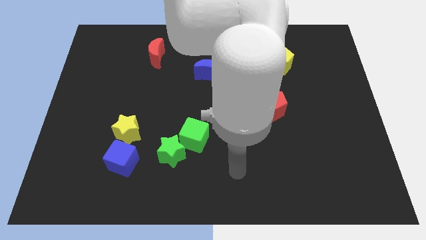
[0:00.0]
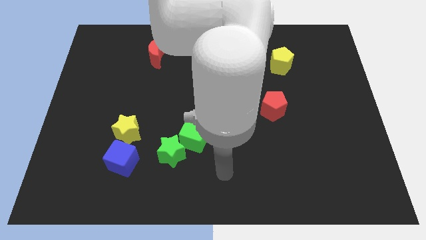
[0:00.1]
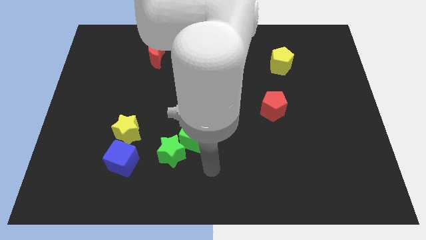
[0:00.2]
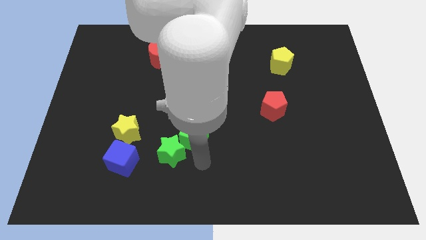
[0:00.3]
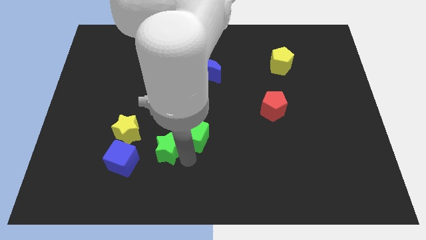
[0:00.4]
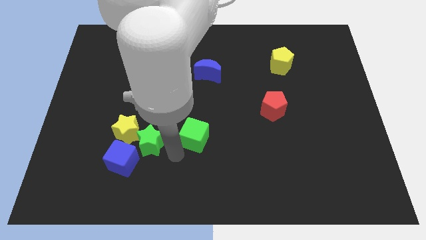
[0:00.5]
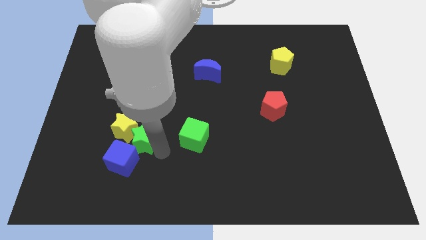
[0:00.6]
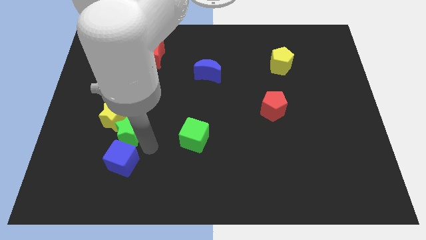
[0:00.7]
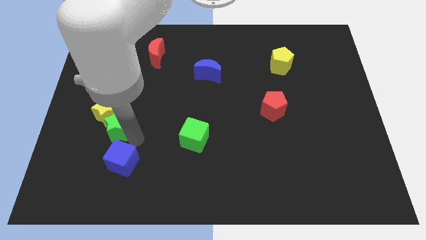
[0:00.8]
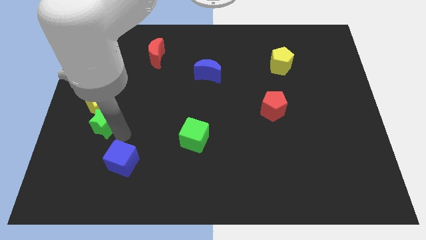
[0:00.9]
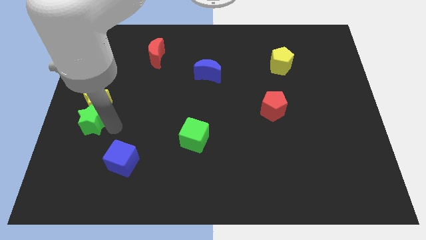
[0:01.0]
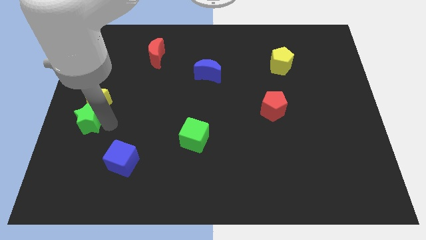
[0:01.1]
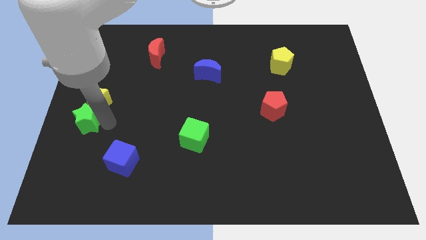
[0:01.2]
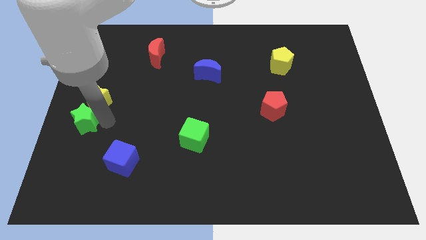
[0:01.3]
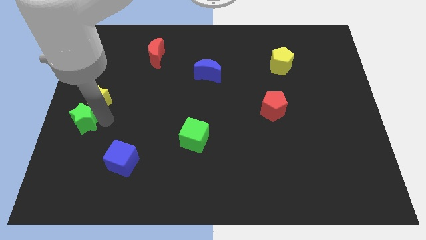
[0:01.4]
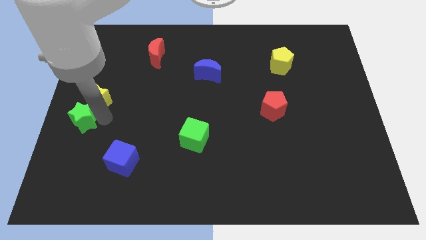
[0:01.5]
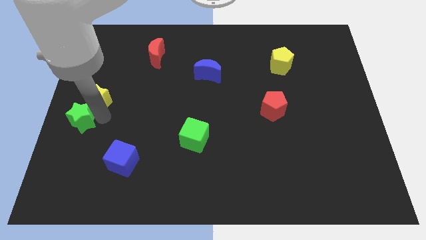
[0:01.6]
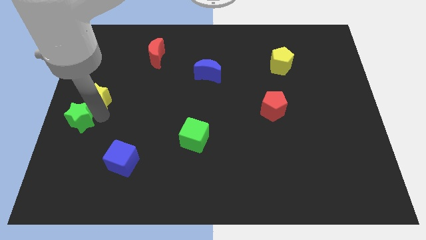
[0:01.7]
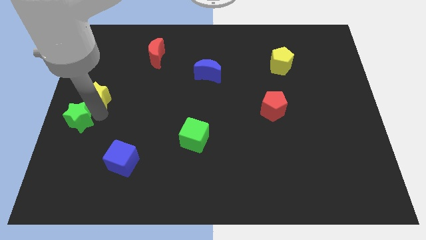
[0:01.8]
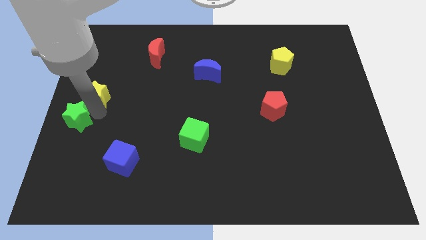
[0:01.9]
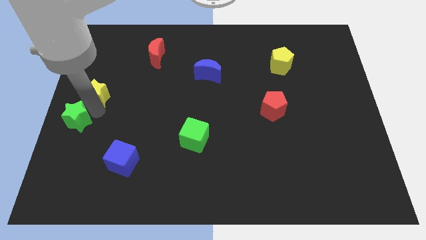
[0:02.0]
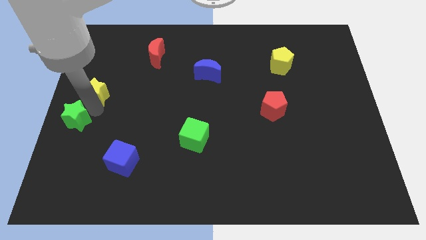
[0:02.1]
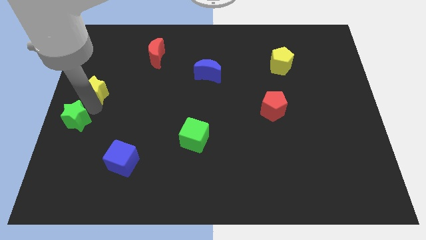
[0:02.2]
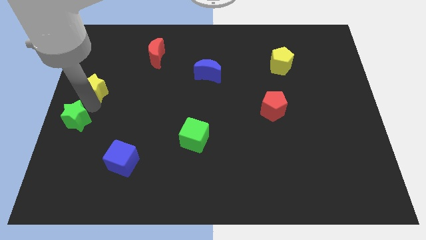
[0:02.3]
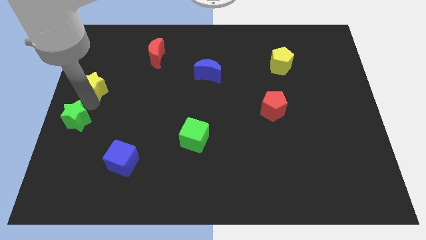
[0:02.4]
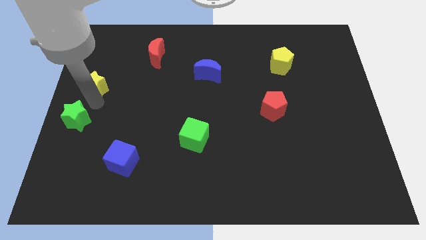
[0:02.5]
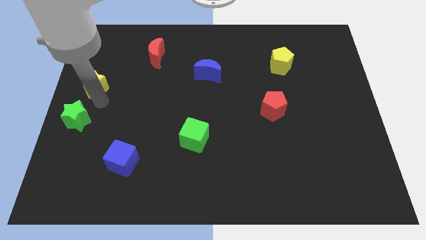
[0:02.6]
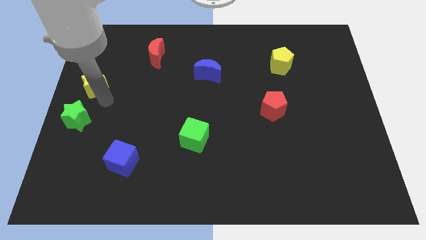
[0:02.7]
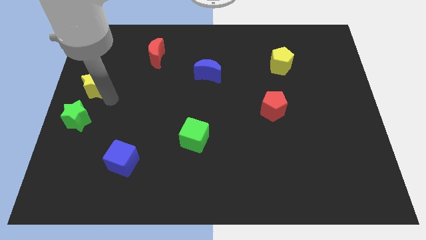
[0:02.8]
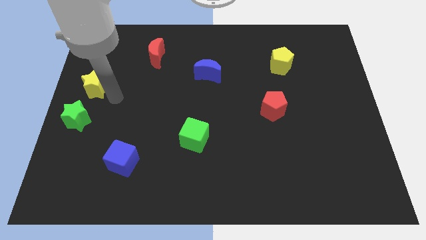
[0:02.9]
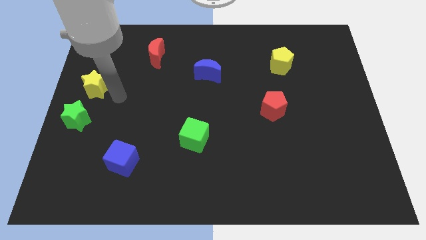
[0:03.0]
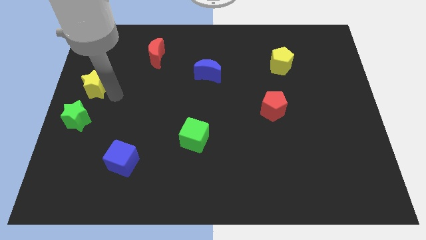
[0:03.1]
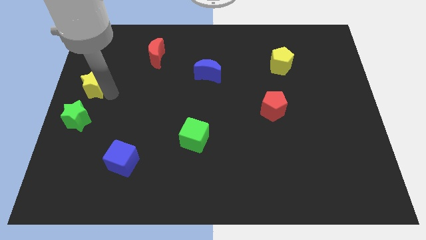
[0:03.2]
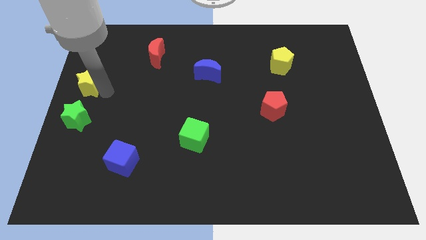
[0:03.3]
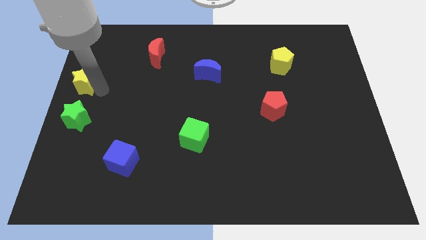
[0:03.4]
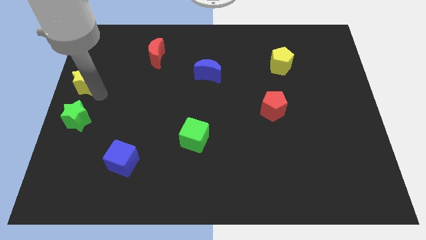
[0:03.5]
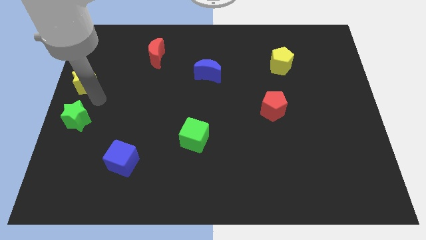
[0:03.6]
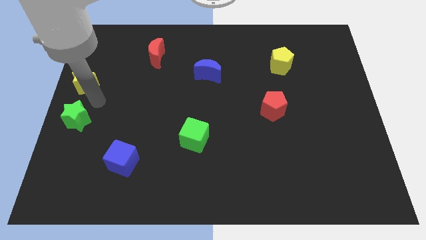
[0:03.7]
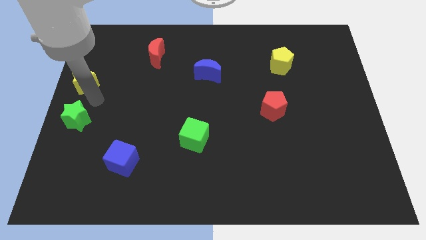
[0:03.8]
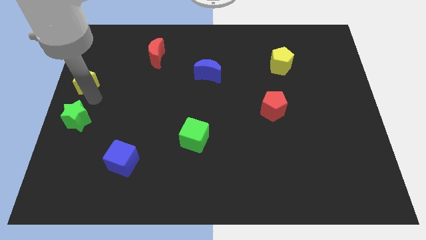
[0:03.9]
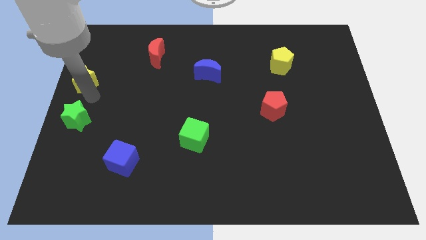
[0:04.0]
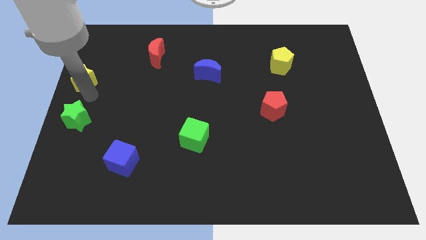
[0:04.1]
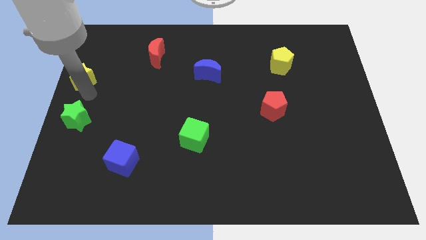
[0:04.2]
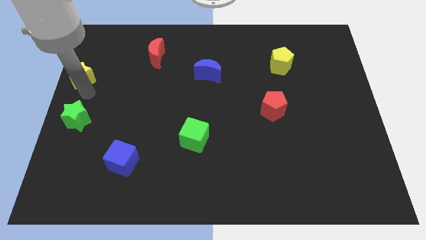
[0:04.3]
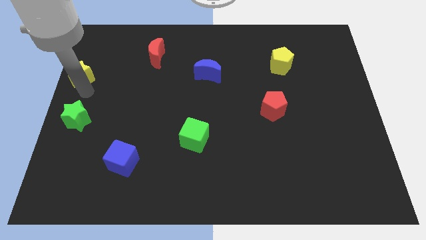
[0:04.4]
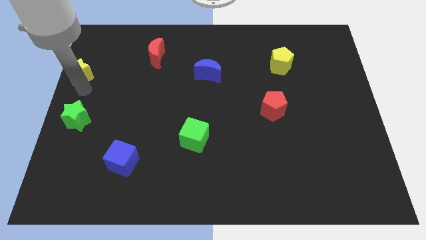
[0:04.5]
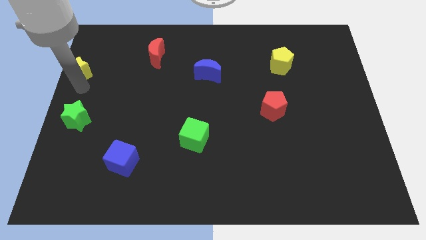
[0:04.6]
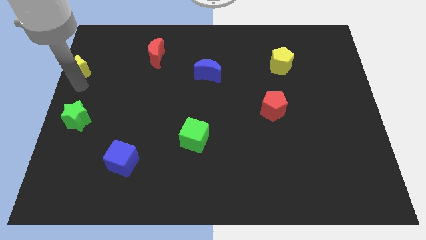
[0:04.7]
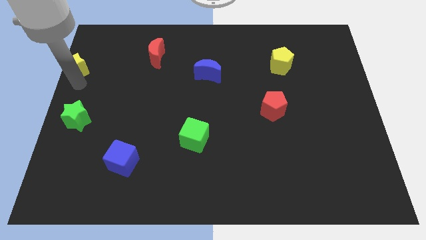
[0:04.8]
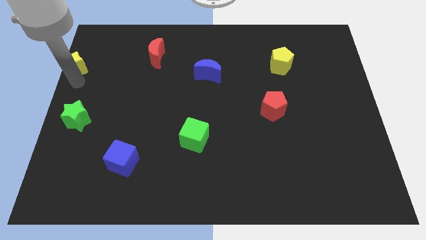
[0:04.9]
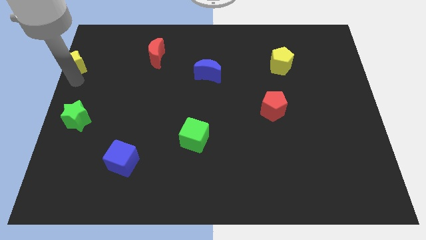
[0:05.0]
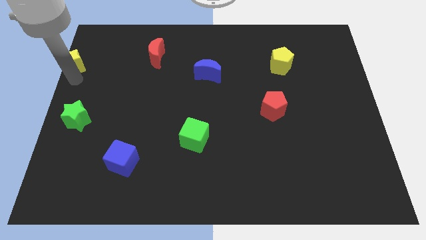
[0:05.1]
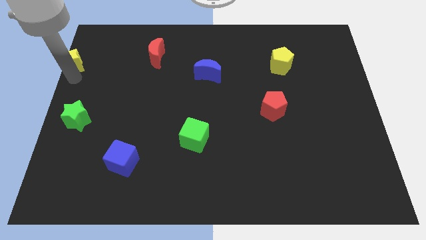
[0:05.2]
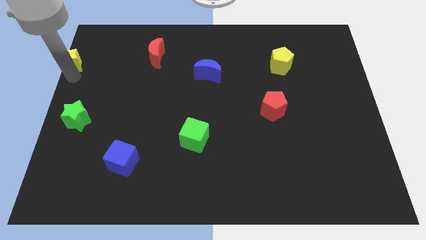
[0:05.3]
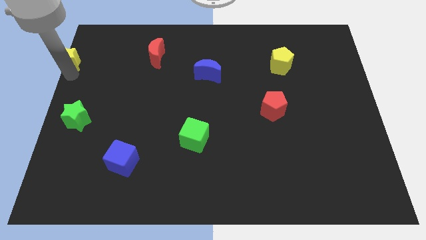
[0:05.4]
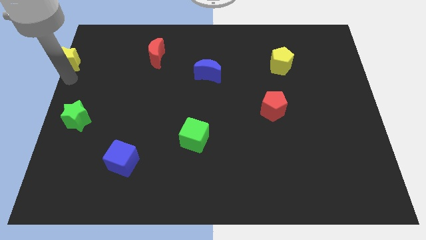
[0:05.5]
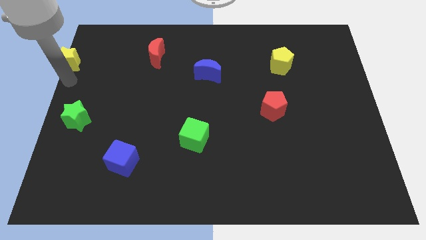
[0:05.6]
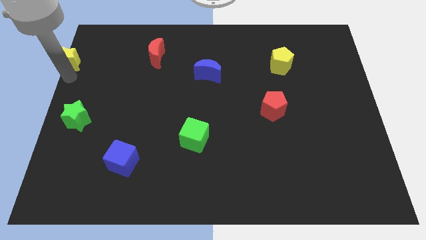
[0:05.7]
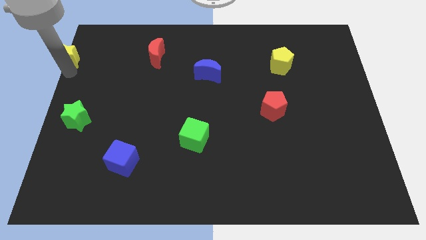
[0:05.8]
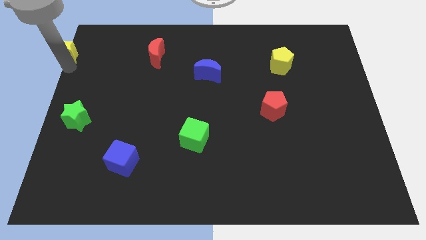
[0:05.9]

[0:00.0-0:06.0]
move the yellow star to the top left corner
